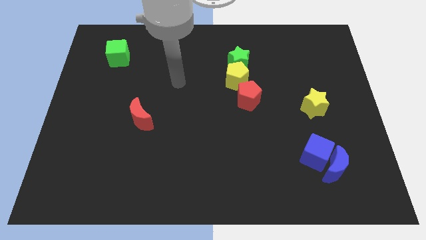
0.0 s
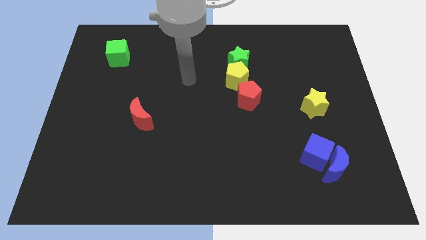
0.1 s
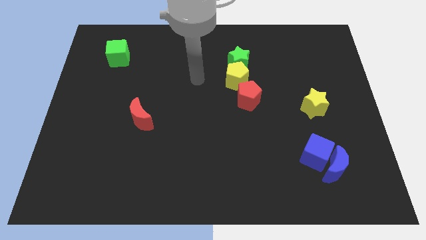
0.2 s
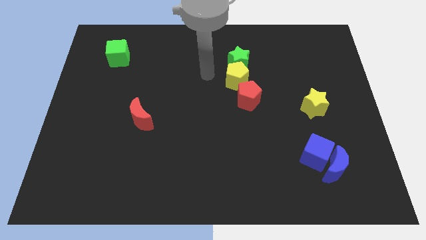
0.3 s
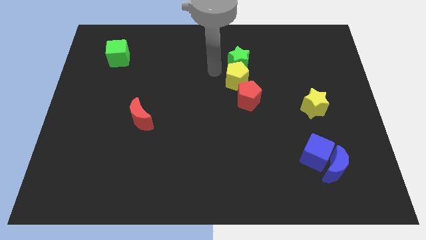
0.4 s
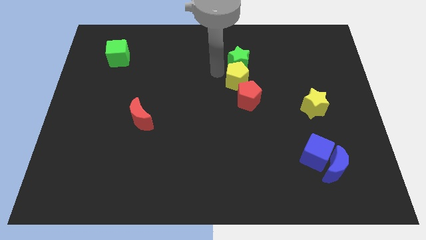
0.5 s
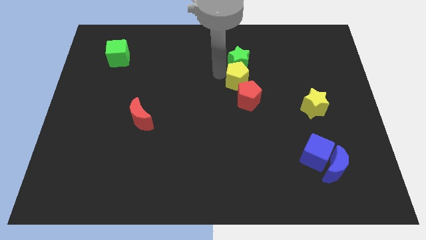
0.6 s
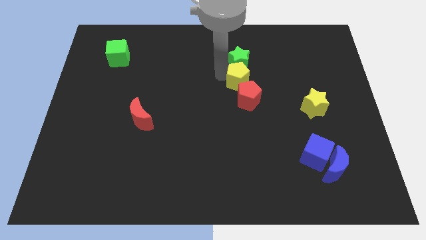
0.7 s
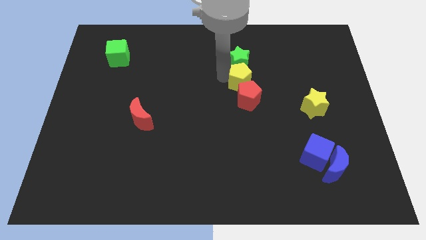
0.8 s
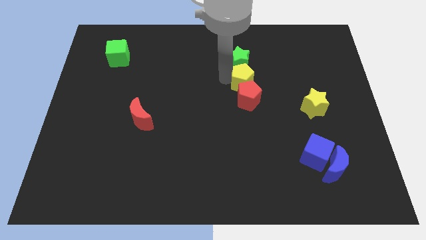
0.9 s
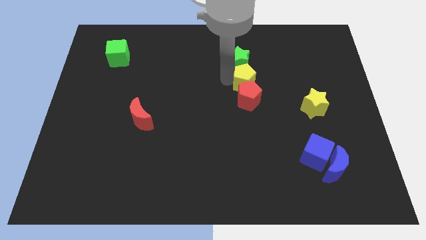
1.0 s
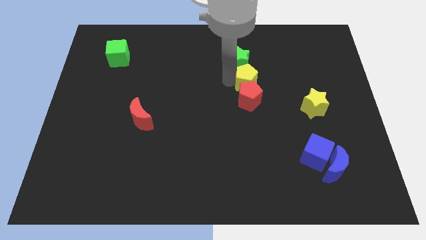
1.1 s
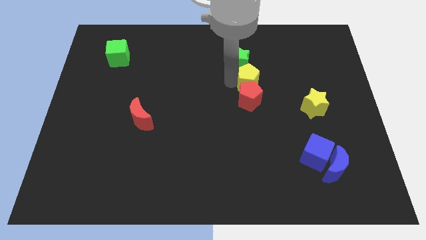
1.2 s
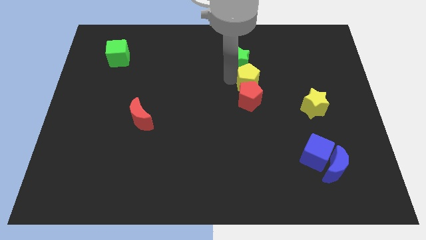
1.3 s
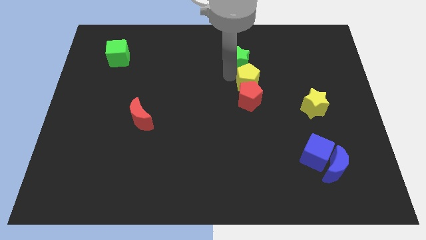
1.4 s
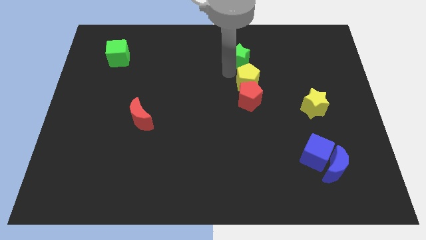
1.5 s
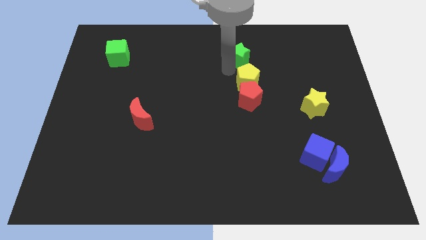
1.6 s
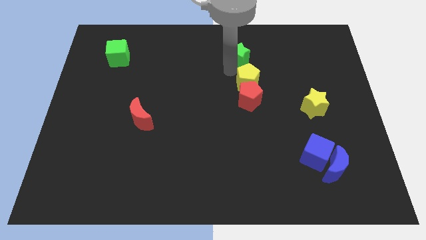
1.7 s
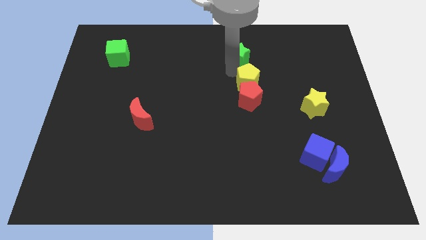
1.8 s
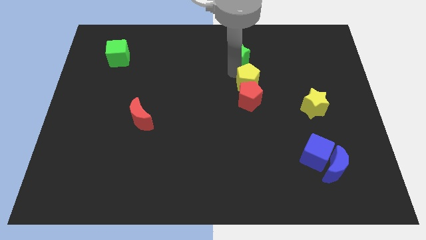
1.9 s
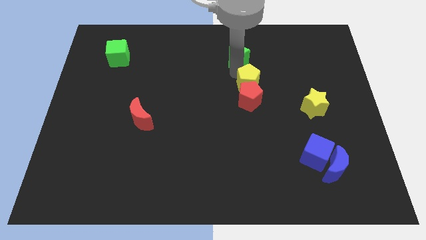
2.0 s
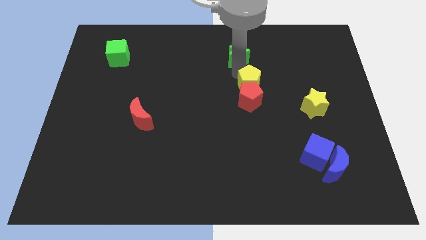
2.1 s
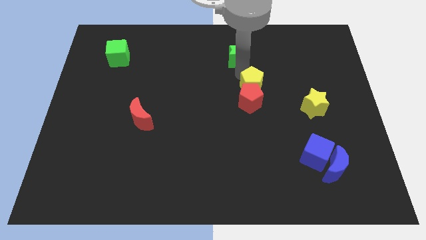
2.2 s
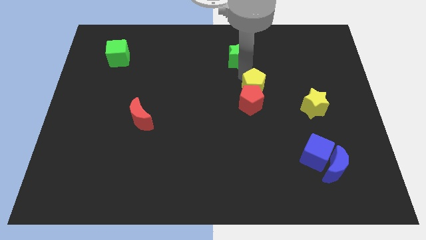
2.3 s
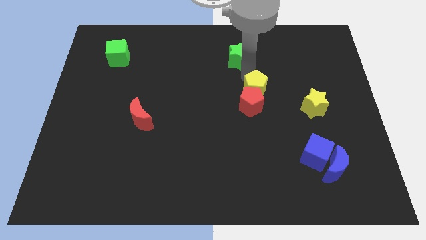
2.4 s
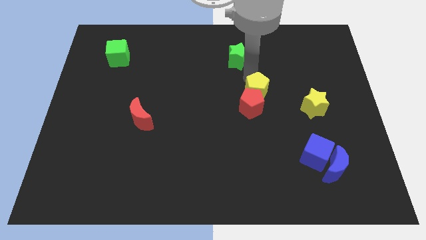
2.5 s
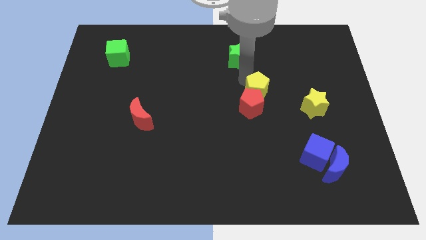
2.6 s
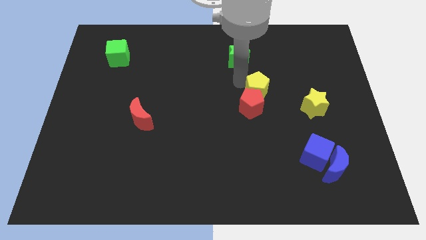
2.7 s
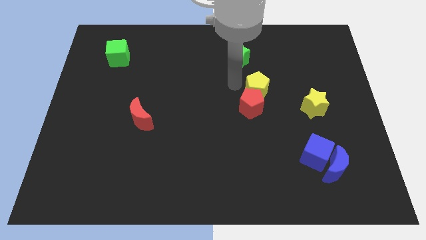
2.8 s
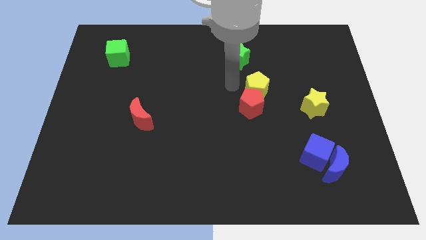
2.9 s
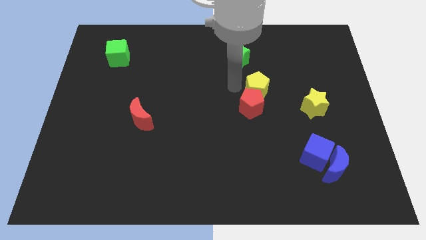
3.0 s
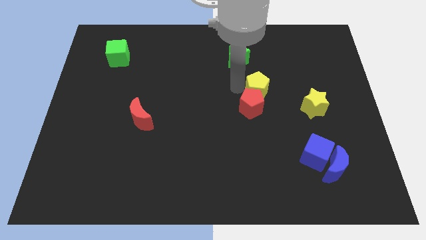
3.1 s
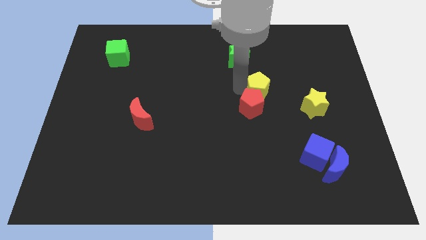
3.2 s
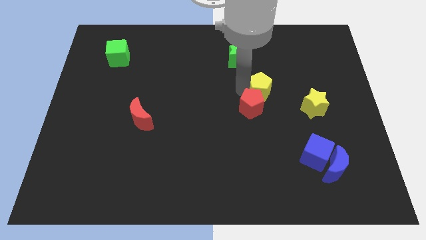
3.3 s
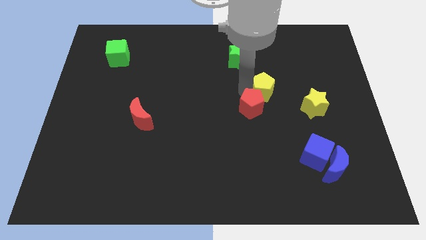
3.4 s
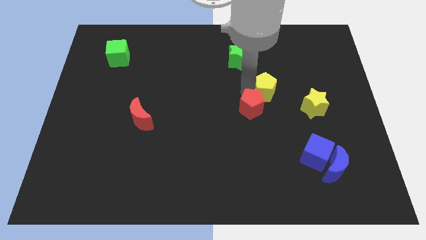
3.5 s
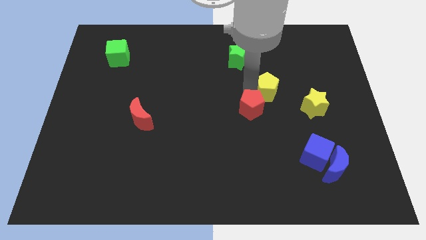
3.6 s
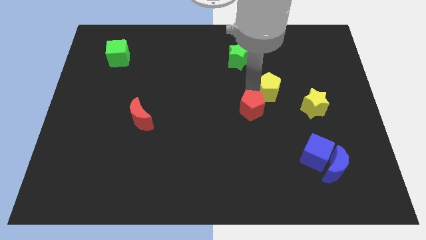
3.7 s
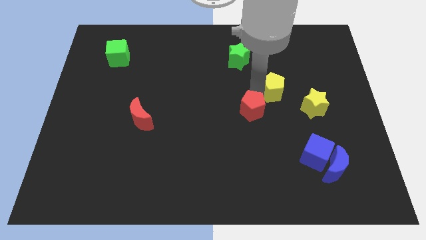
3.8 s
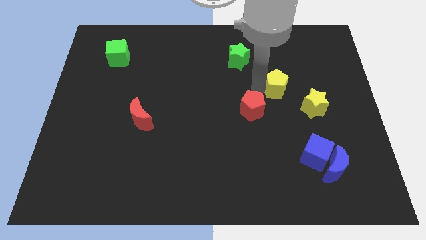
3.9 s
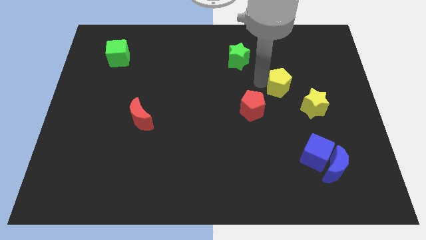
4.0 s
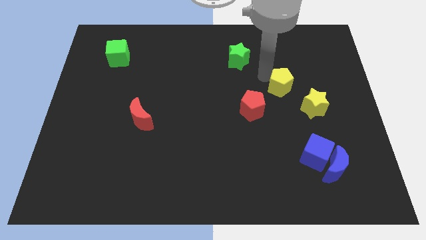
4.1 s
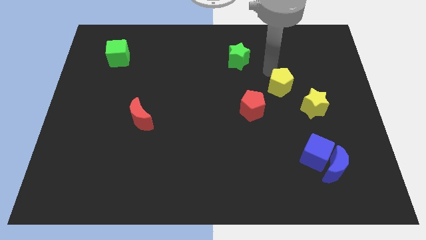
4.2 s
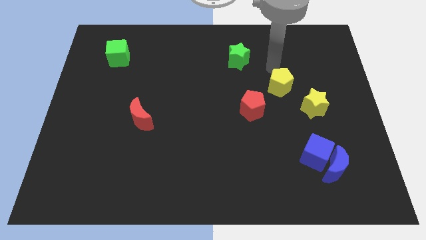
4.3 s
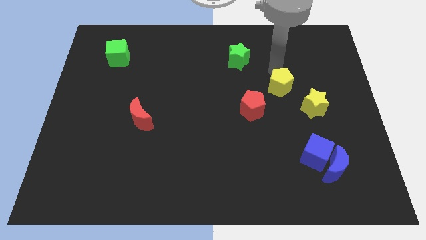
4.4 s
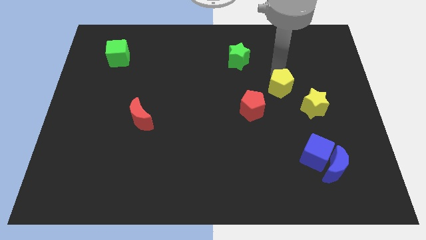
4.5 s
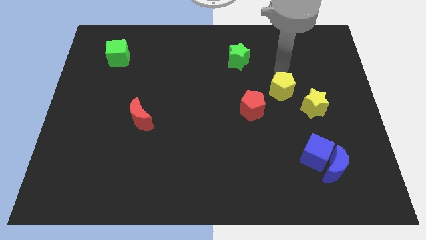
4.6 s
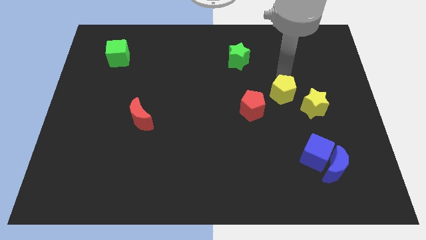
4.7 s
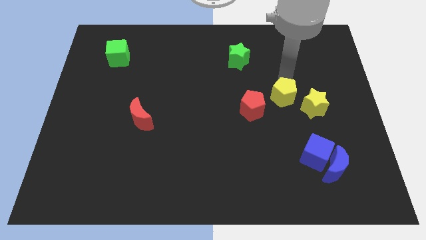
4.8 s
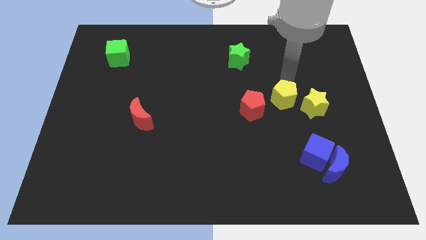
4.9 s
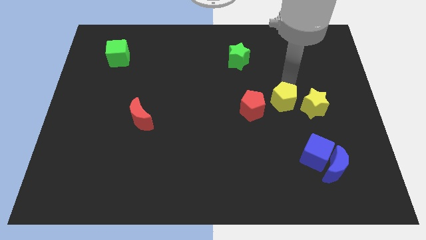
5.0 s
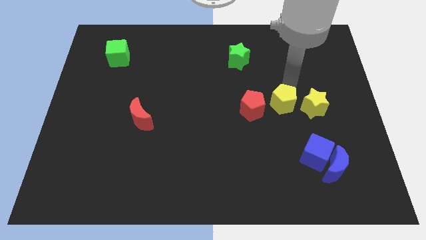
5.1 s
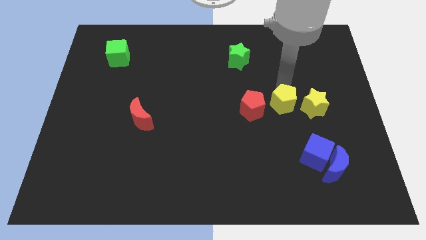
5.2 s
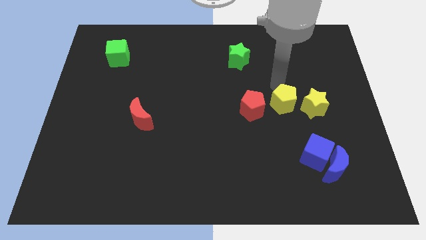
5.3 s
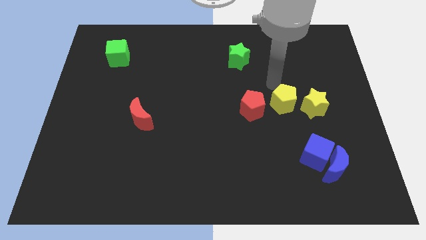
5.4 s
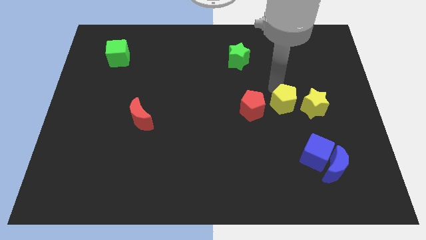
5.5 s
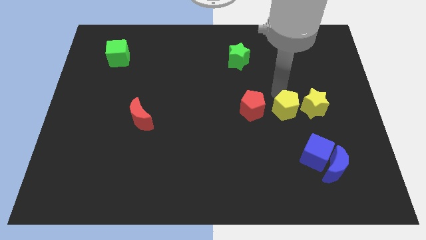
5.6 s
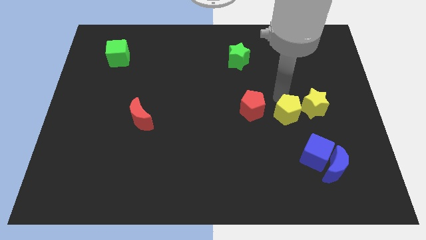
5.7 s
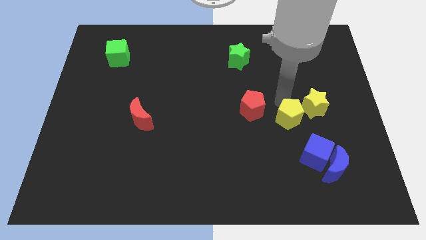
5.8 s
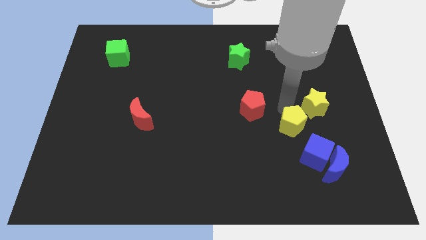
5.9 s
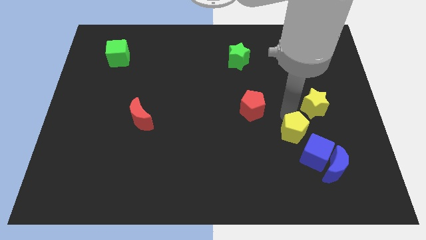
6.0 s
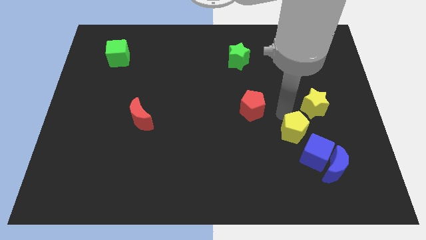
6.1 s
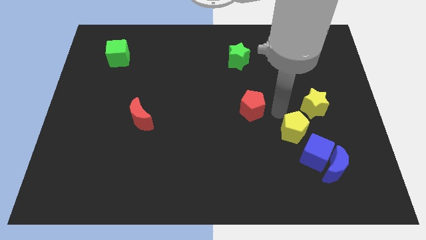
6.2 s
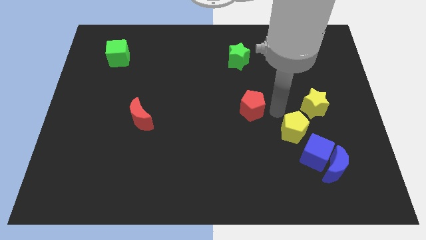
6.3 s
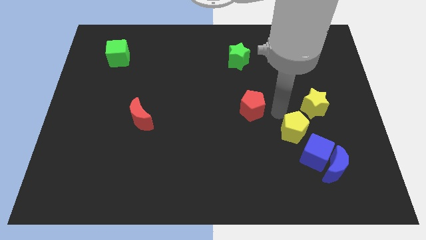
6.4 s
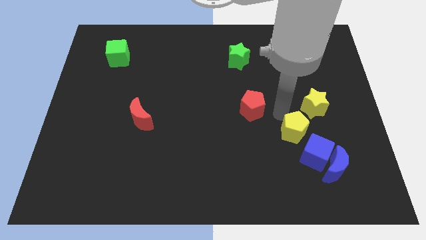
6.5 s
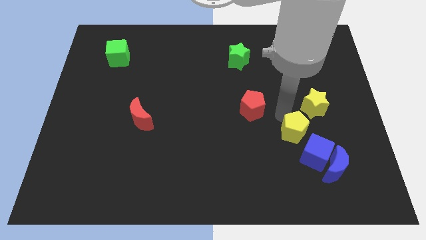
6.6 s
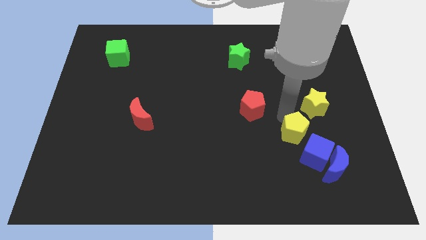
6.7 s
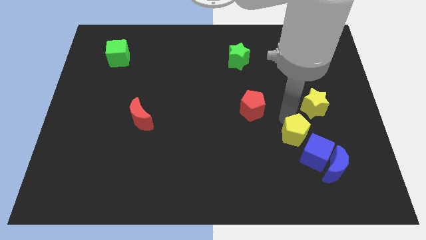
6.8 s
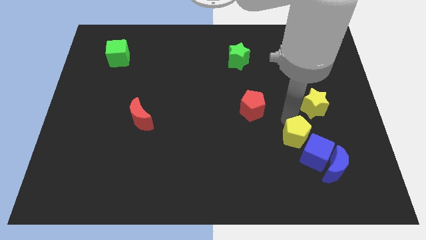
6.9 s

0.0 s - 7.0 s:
put the yellow pentagon close to the blue cube
